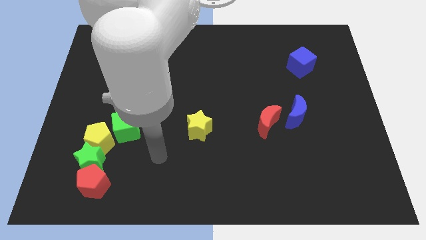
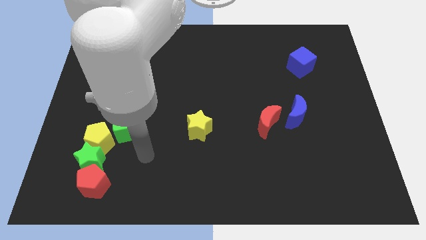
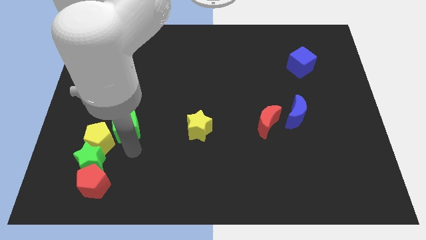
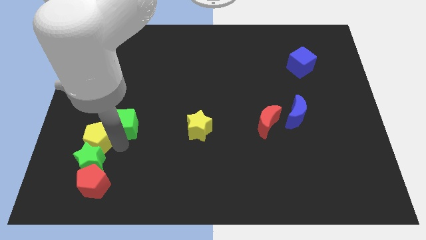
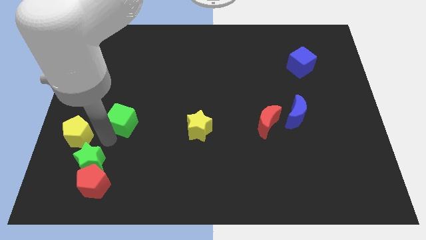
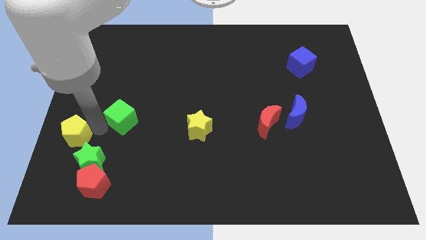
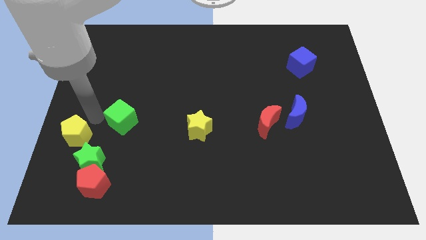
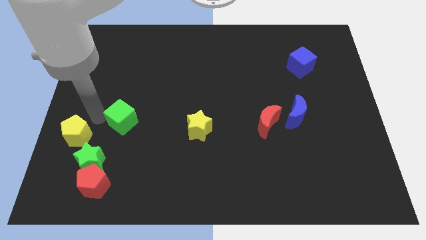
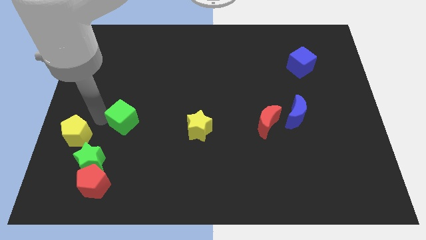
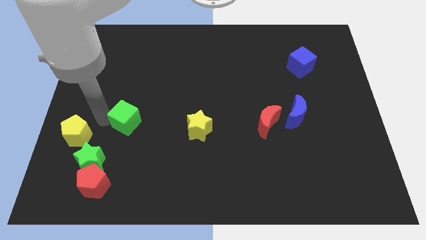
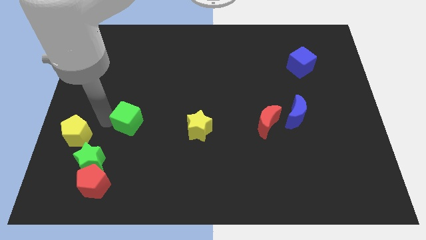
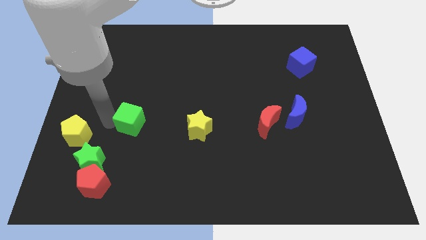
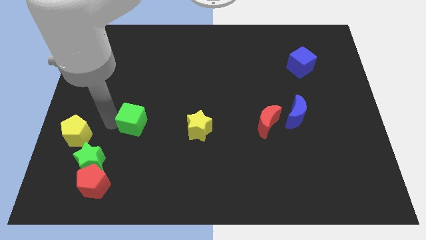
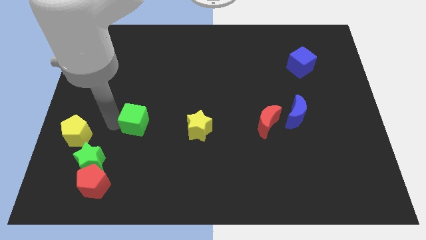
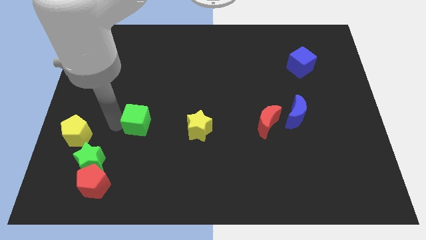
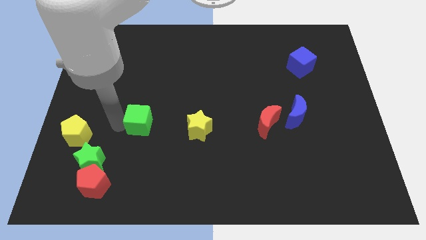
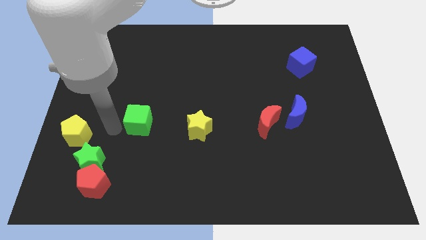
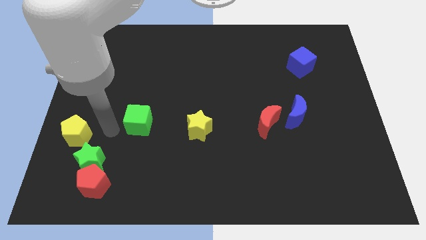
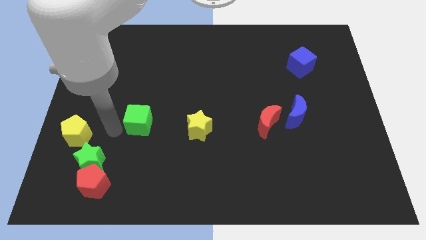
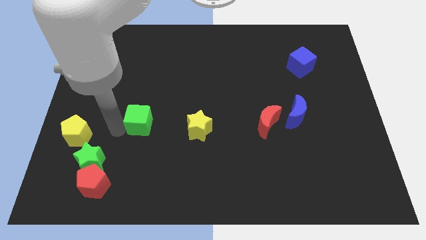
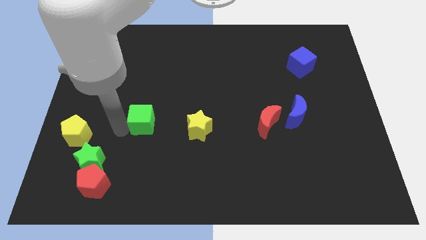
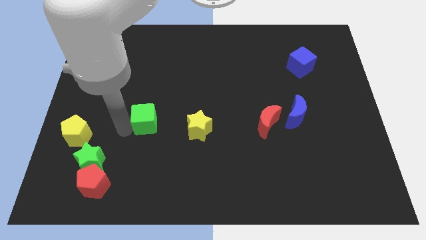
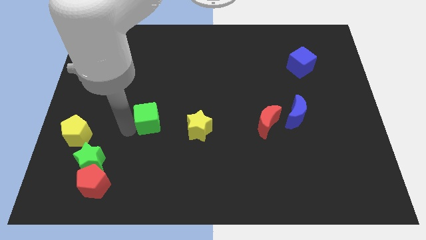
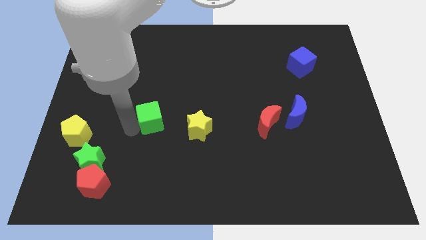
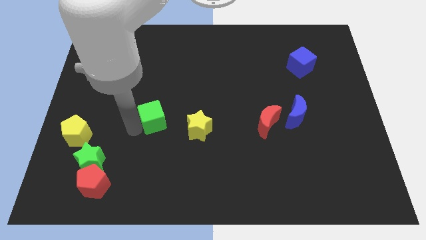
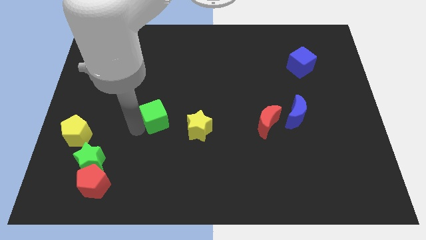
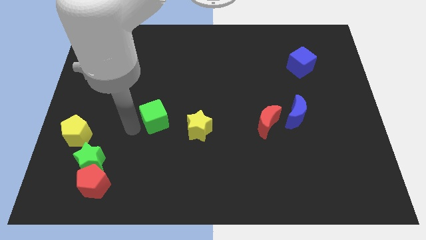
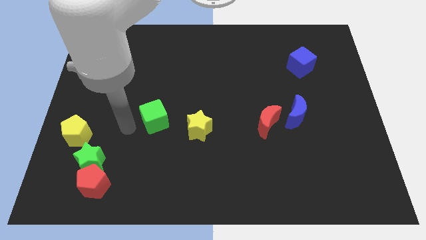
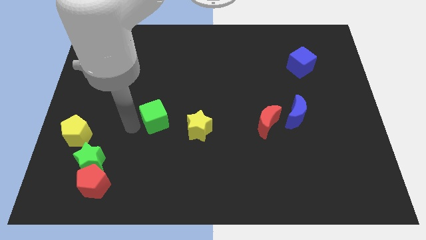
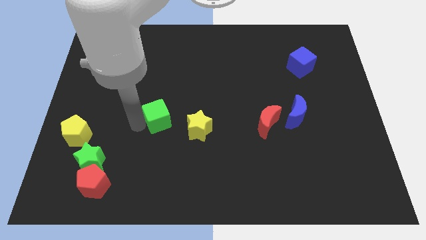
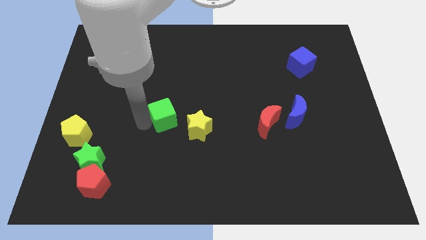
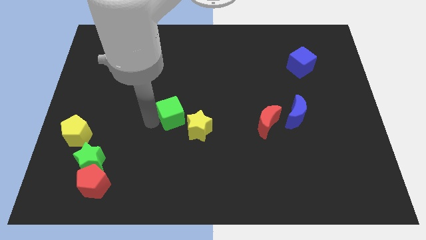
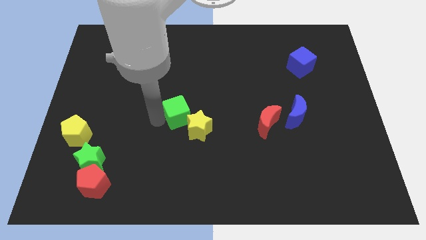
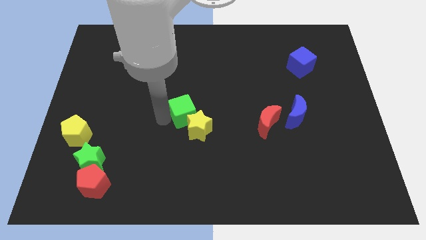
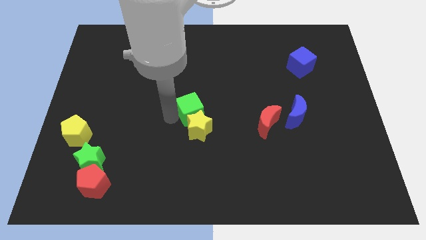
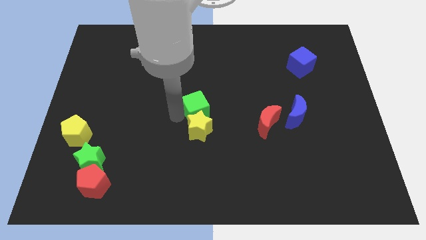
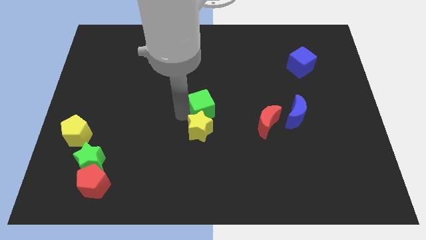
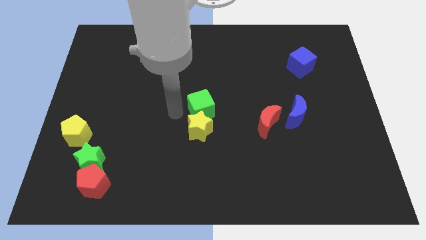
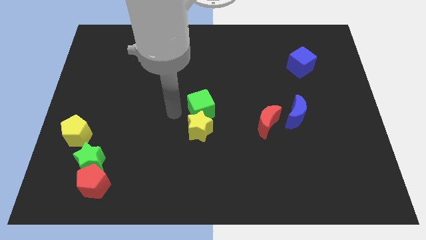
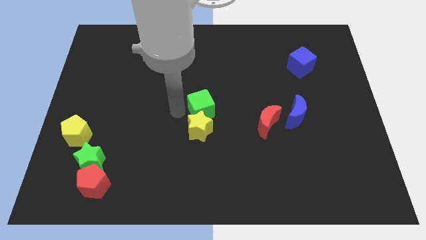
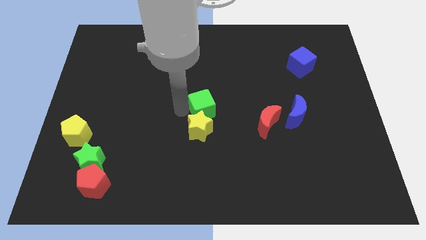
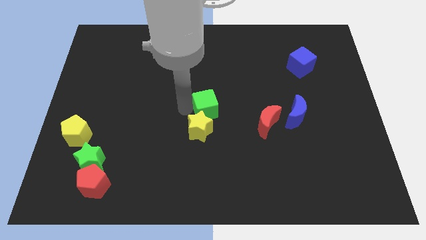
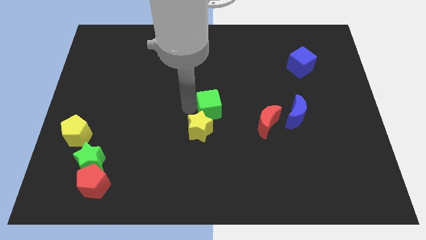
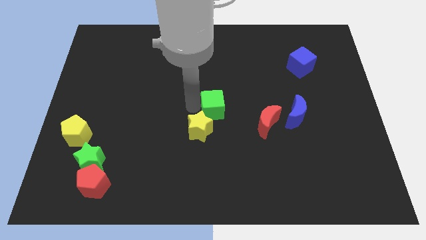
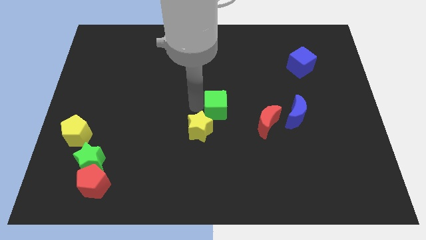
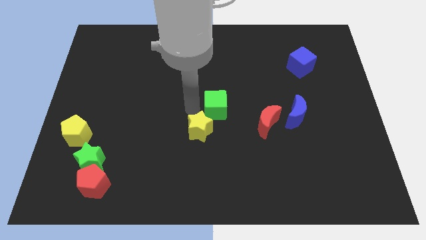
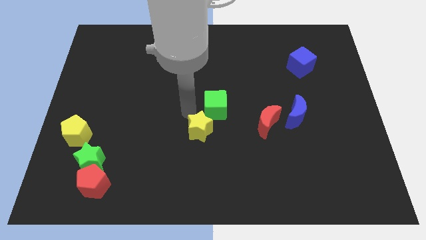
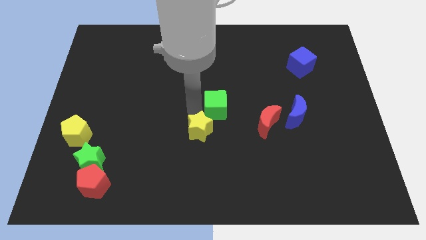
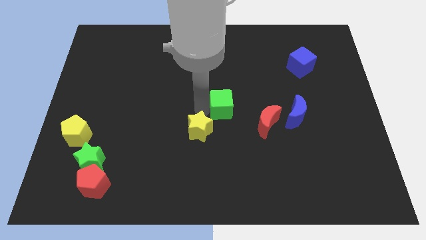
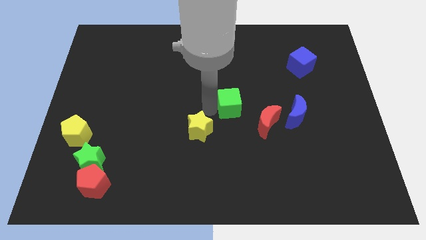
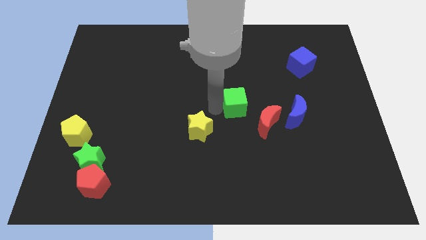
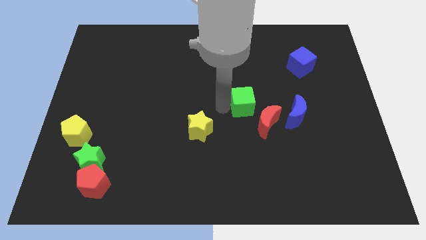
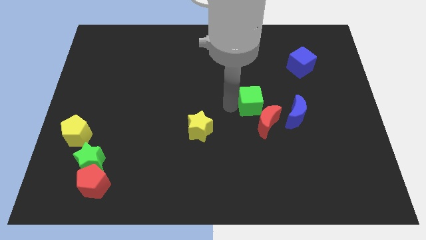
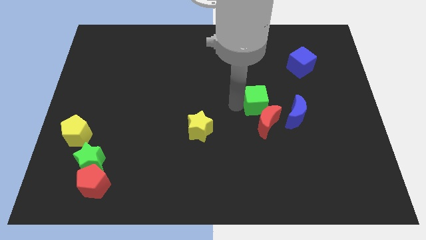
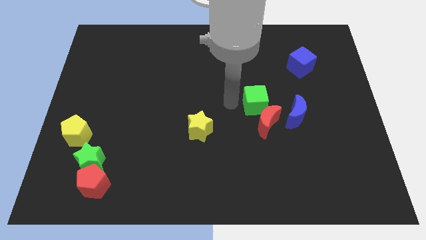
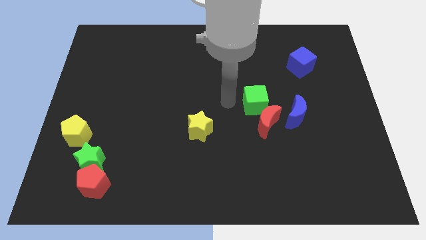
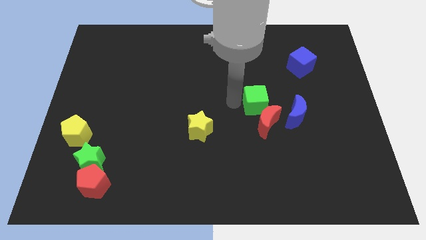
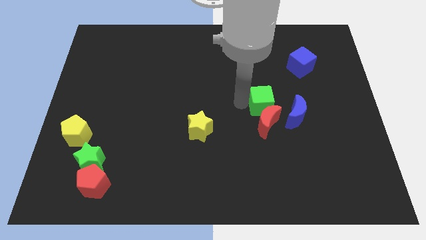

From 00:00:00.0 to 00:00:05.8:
push the green cube diagonally up and to the right of the red moon

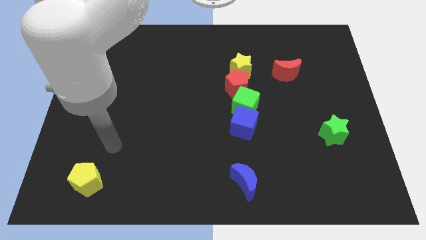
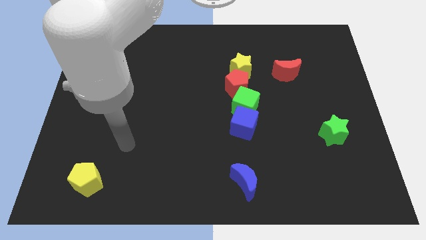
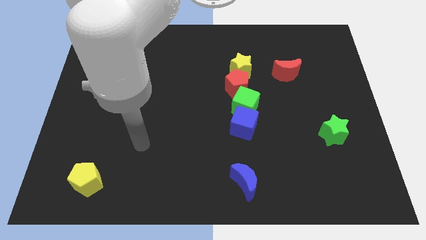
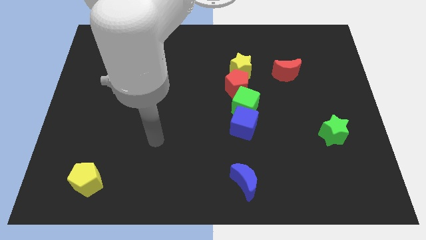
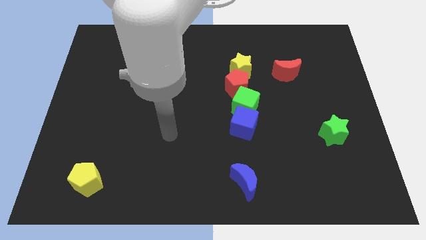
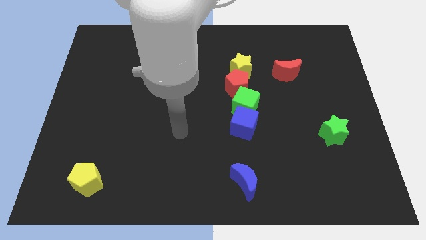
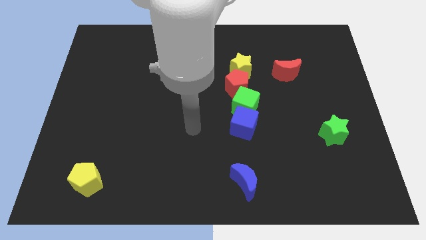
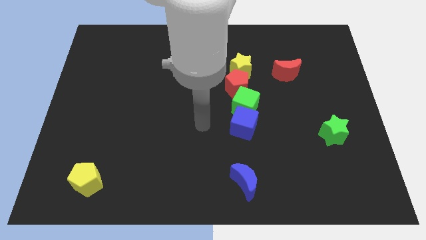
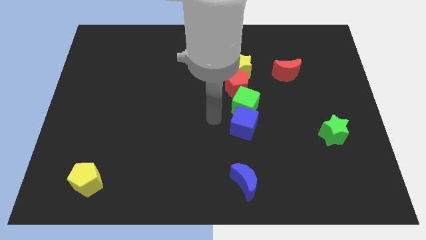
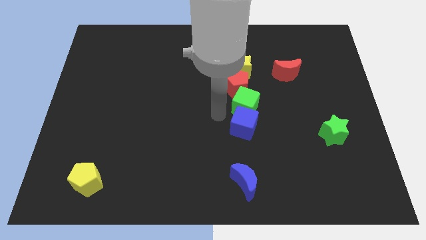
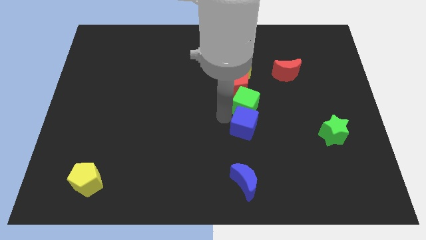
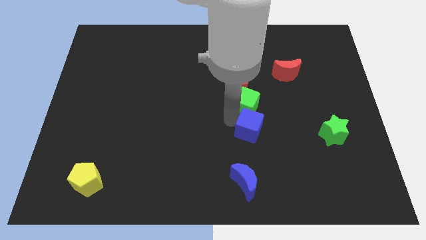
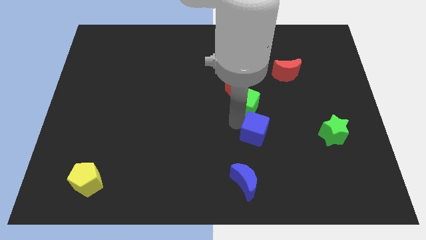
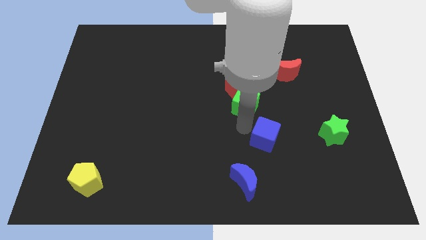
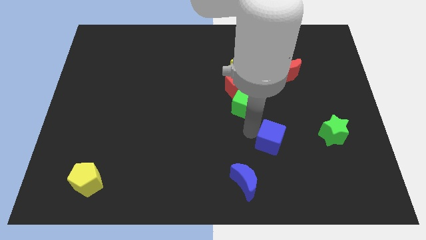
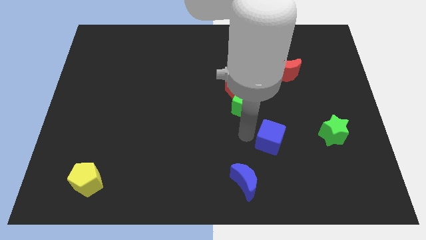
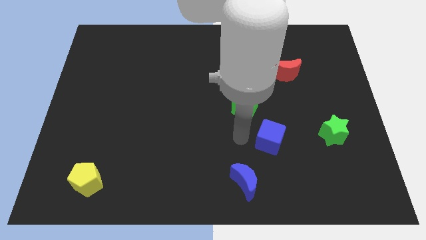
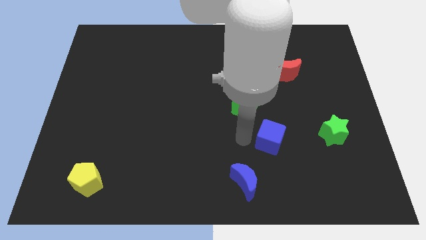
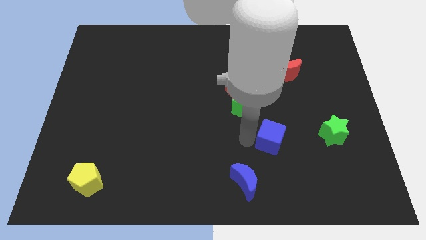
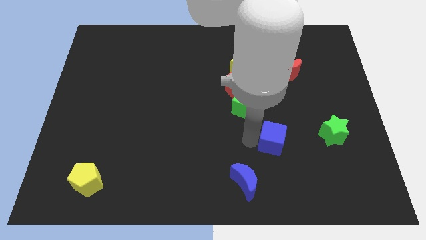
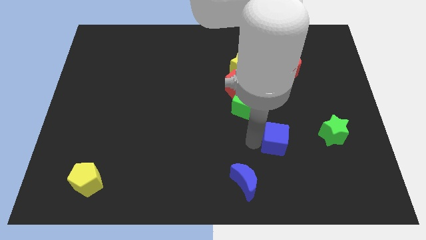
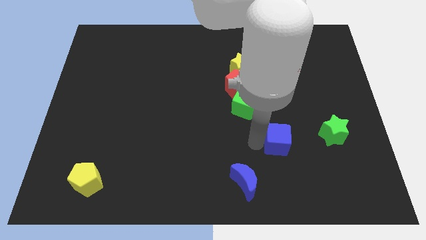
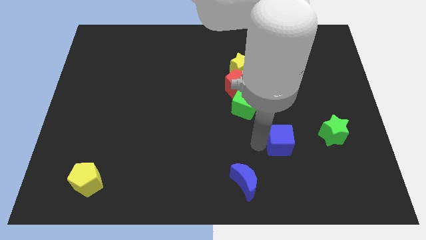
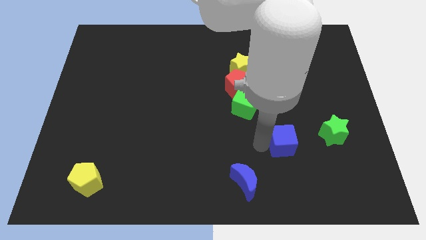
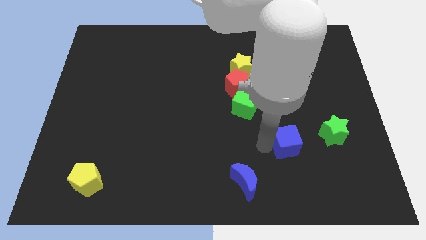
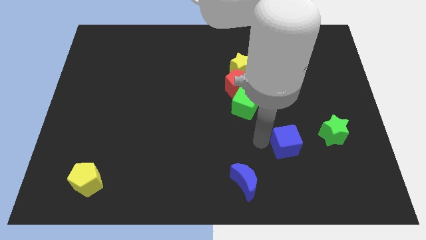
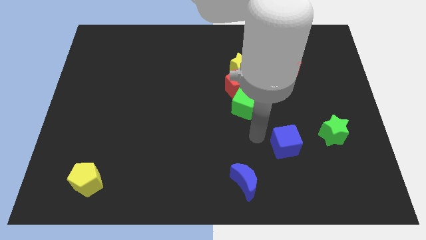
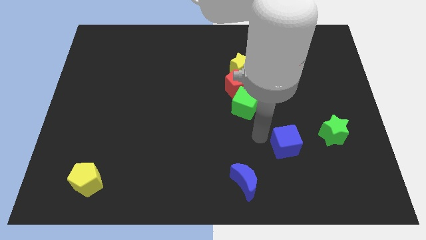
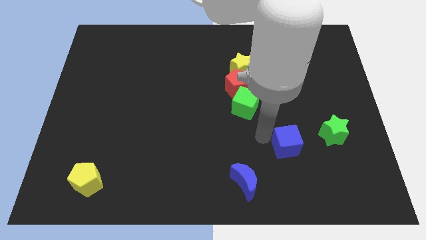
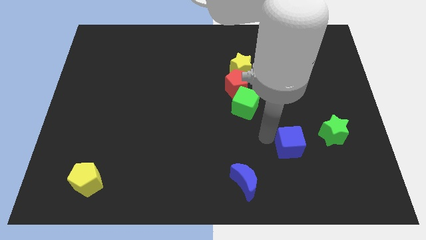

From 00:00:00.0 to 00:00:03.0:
push the blue cube to the bottom left side of the green star
